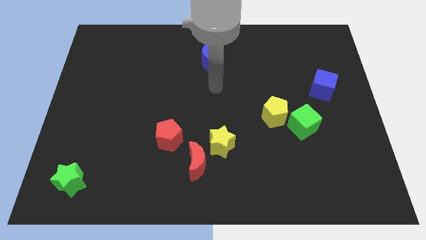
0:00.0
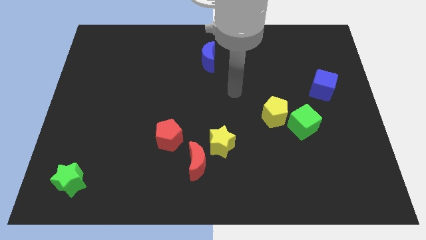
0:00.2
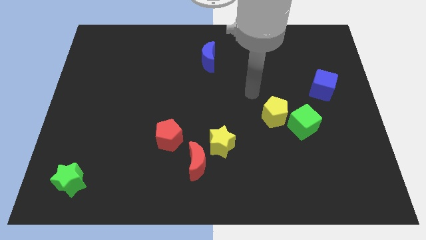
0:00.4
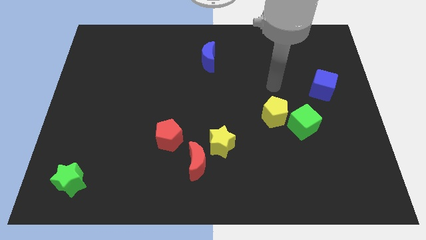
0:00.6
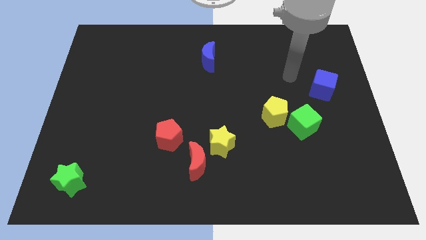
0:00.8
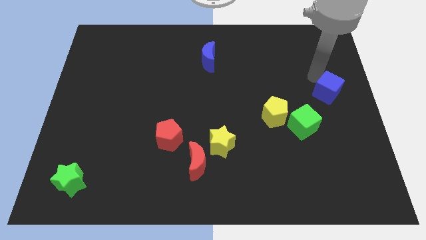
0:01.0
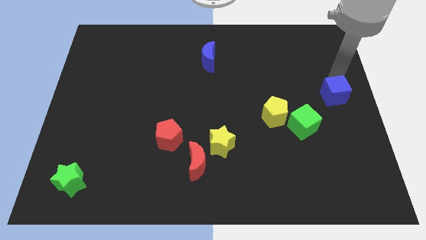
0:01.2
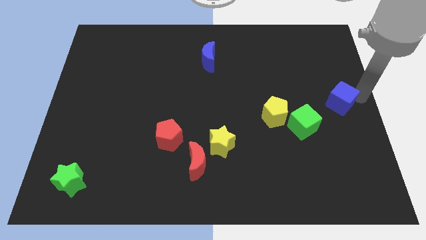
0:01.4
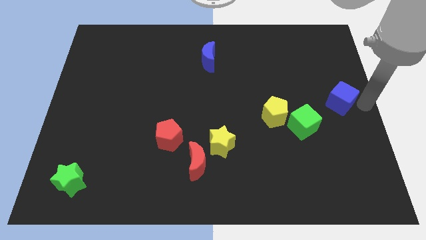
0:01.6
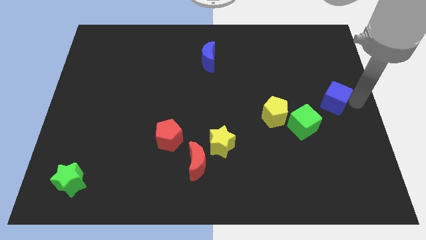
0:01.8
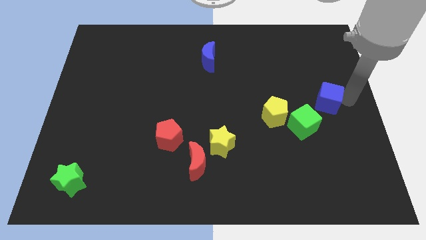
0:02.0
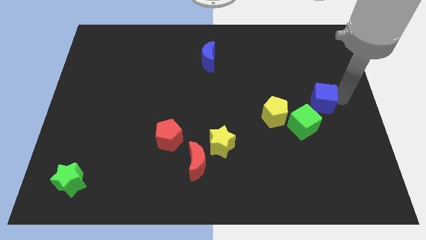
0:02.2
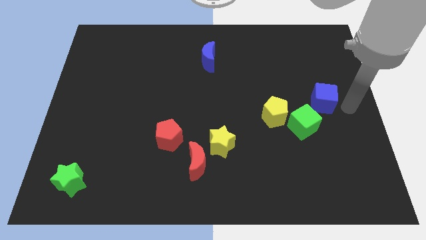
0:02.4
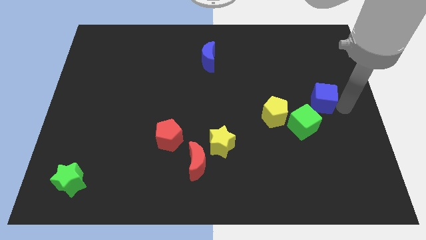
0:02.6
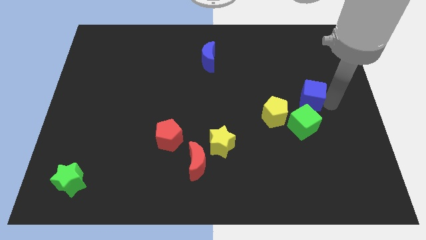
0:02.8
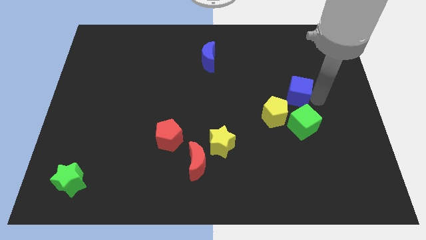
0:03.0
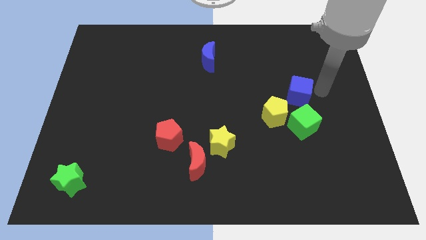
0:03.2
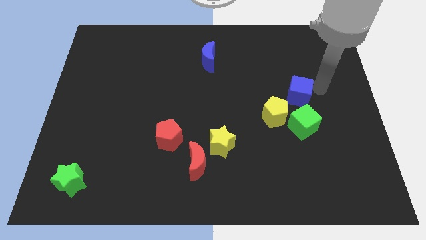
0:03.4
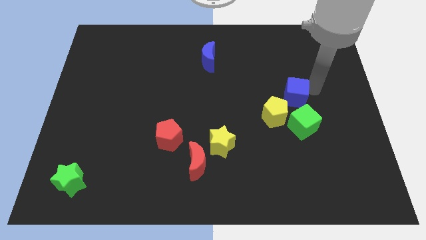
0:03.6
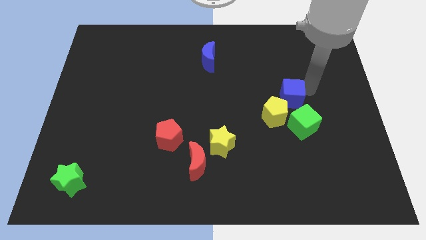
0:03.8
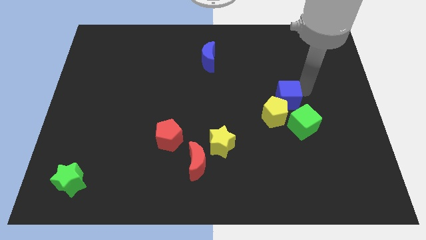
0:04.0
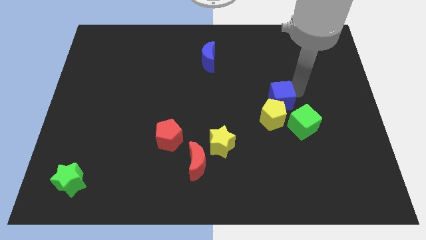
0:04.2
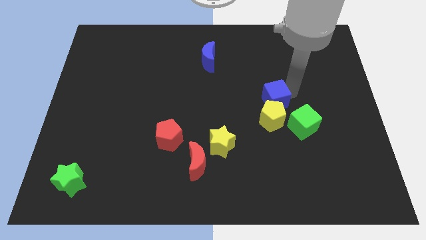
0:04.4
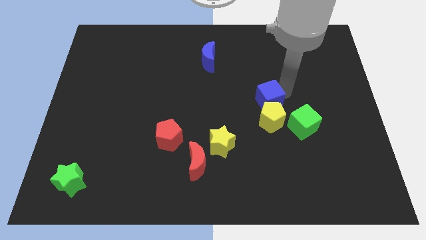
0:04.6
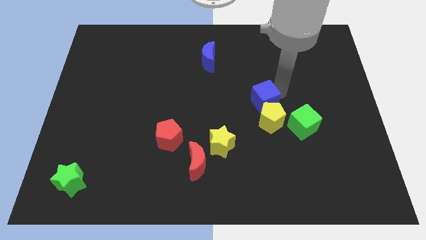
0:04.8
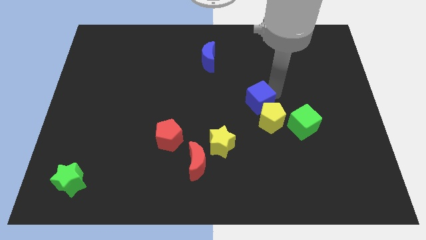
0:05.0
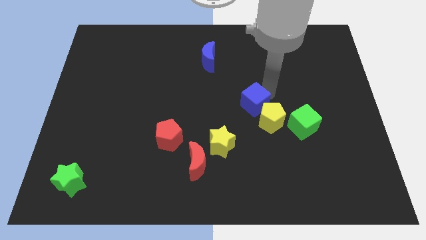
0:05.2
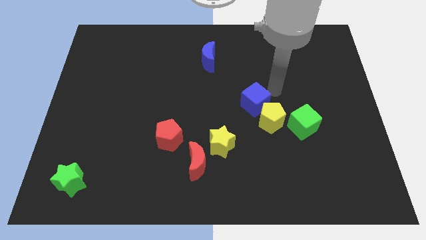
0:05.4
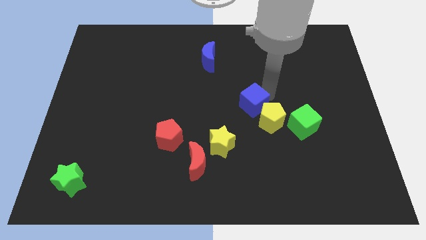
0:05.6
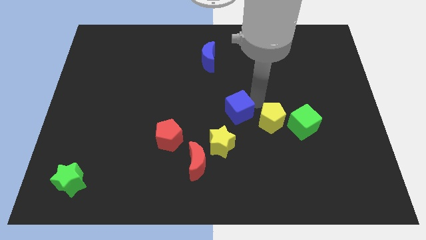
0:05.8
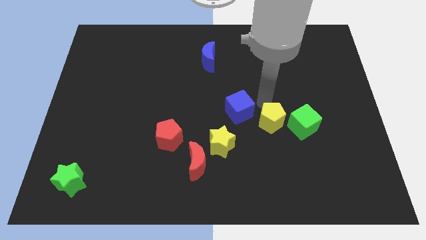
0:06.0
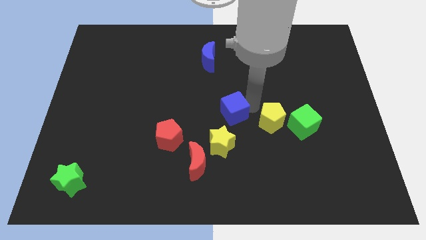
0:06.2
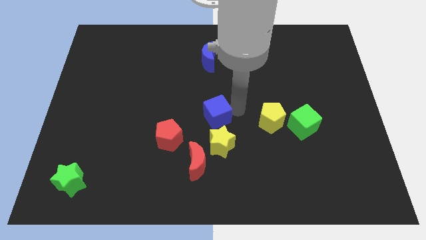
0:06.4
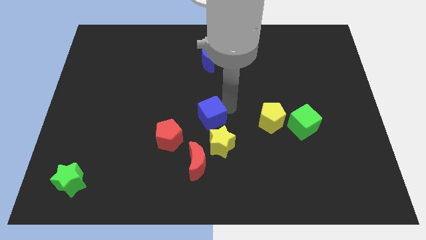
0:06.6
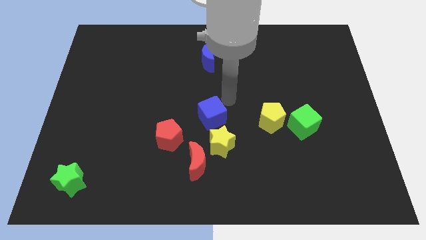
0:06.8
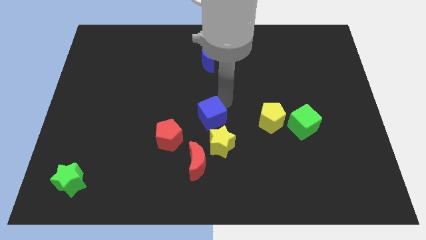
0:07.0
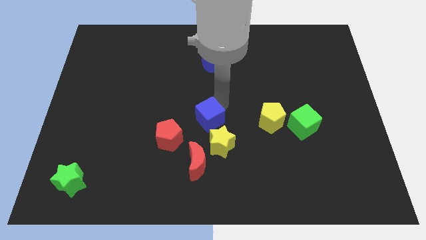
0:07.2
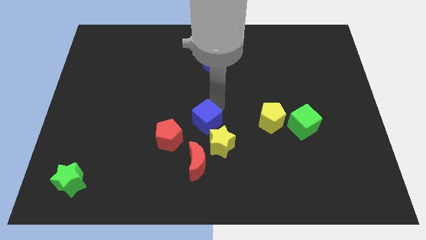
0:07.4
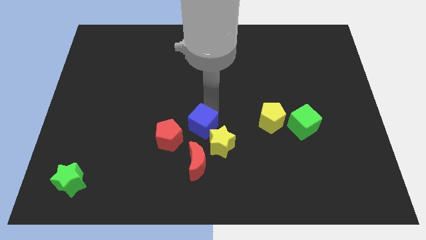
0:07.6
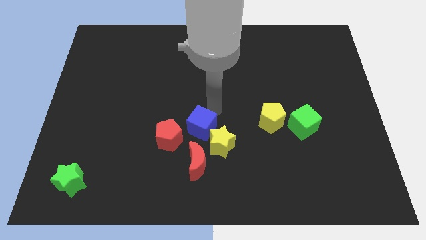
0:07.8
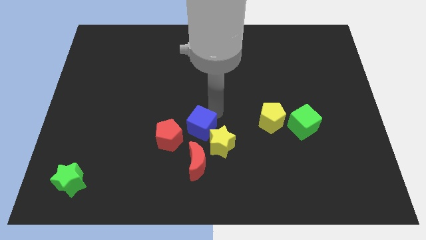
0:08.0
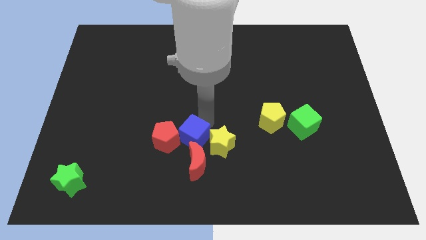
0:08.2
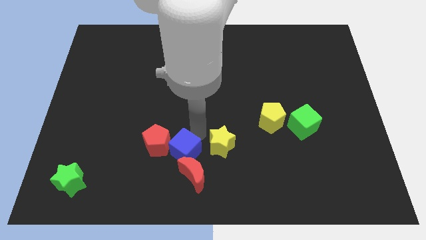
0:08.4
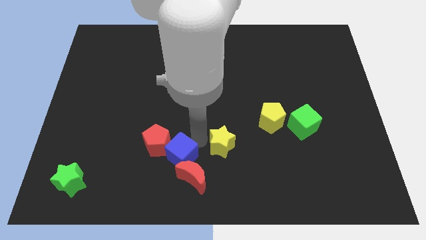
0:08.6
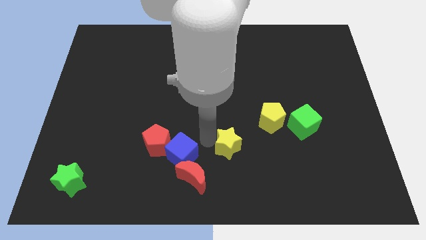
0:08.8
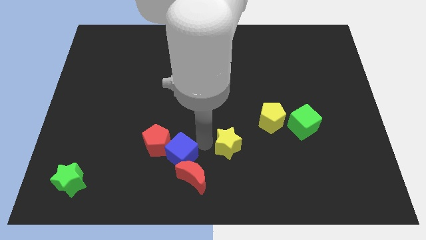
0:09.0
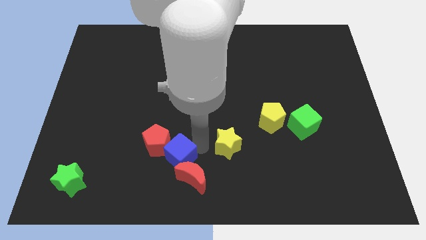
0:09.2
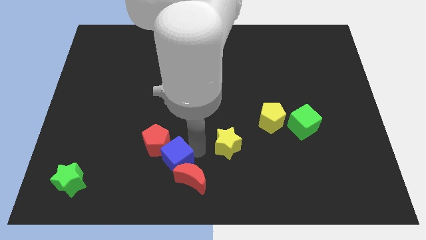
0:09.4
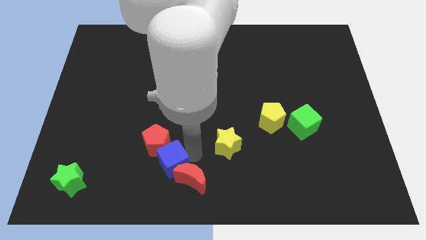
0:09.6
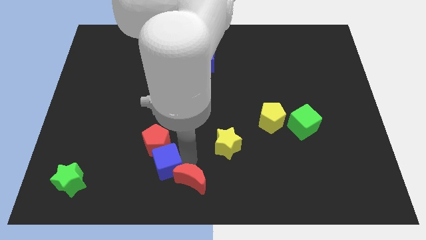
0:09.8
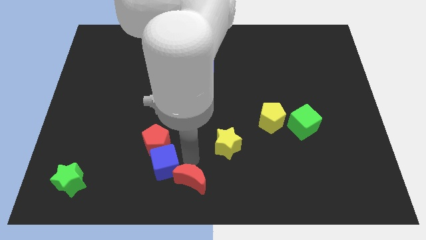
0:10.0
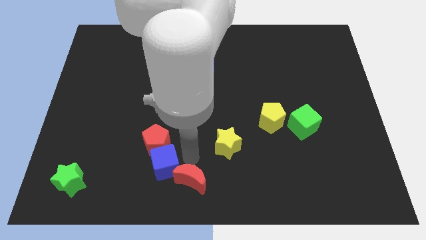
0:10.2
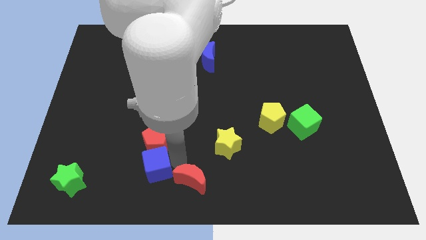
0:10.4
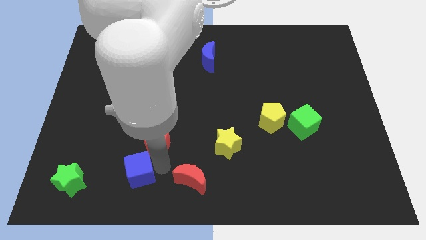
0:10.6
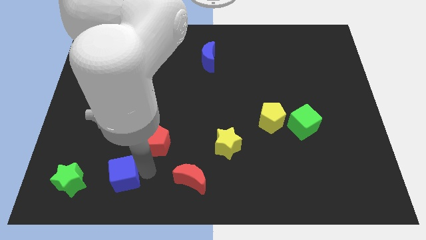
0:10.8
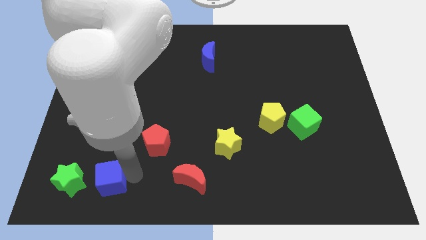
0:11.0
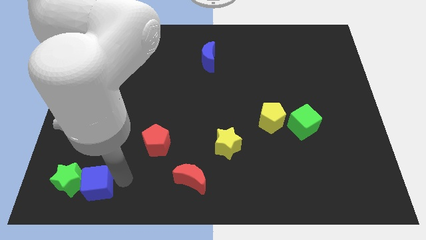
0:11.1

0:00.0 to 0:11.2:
put the blue cube towards the green star
